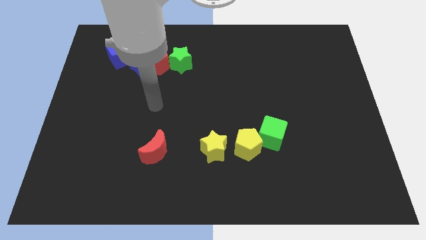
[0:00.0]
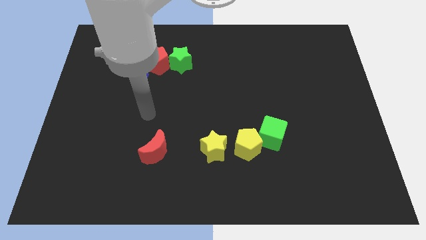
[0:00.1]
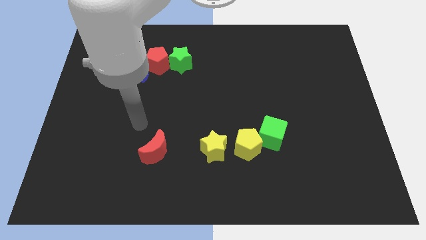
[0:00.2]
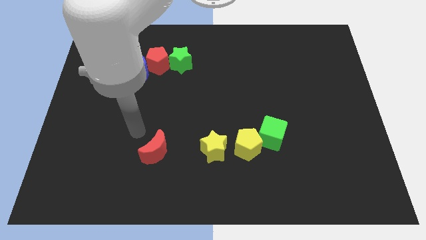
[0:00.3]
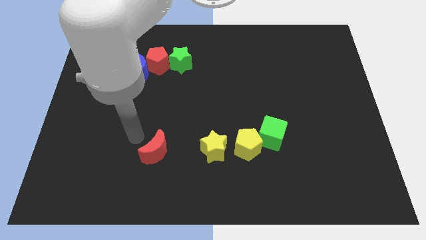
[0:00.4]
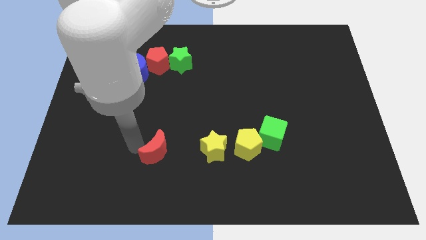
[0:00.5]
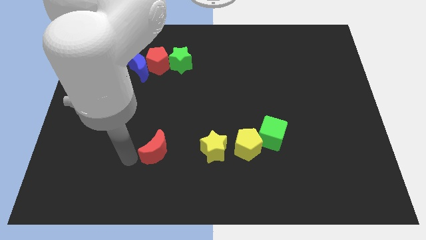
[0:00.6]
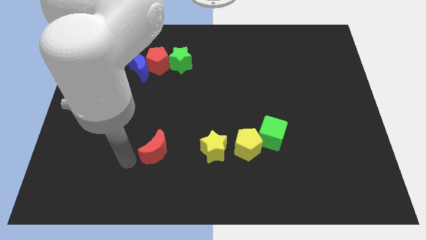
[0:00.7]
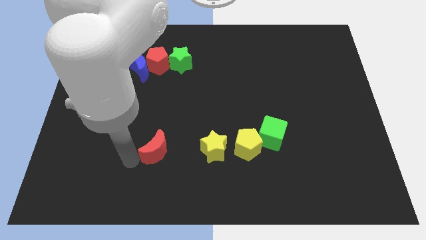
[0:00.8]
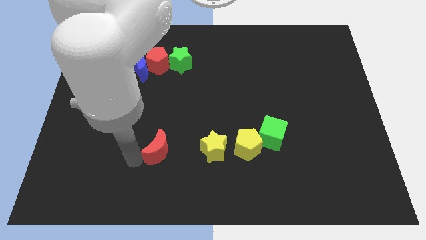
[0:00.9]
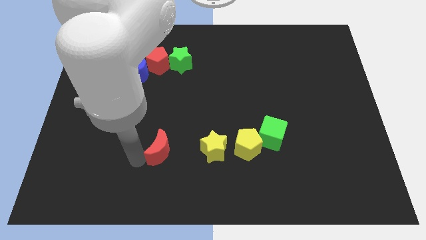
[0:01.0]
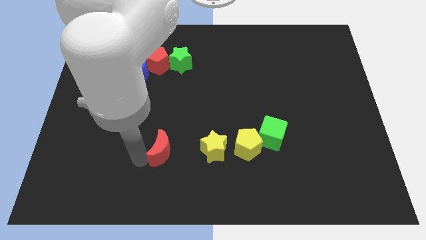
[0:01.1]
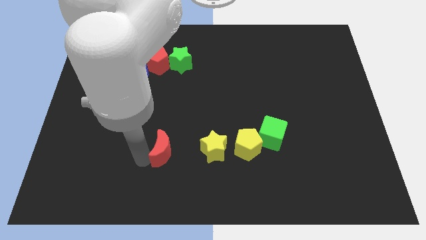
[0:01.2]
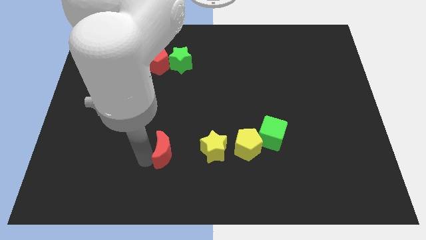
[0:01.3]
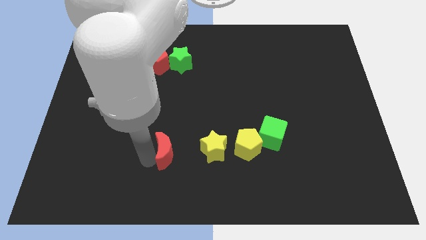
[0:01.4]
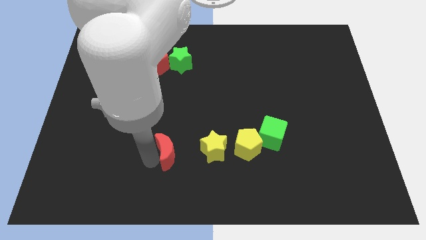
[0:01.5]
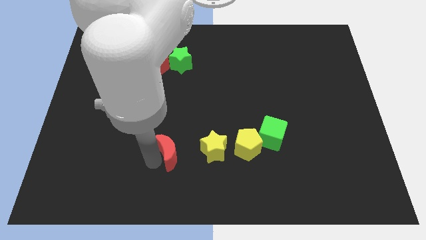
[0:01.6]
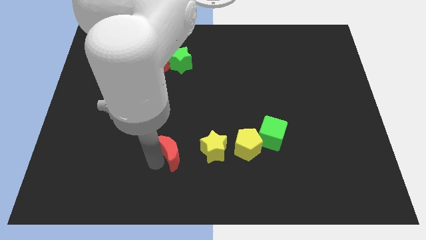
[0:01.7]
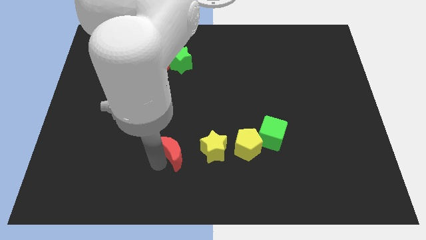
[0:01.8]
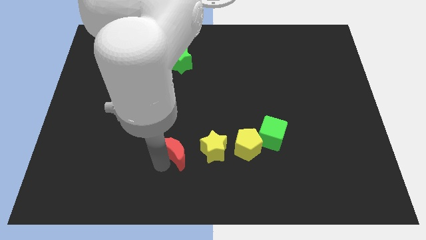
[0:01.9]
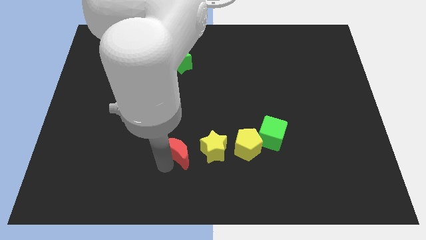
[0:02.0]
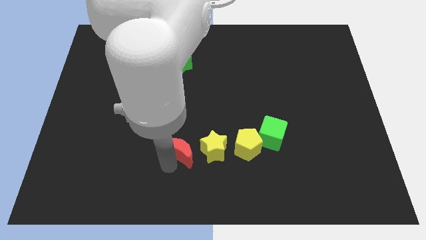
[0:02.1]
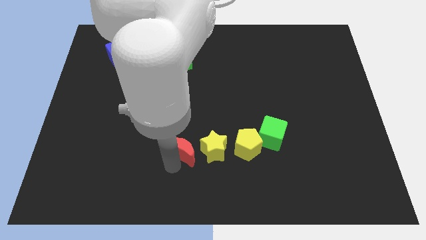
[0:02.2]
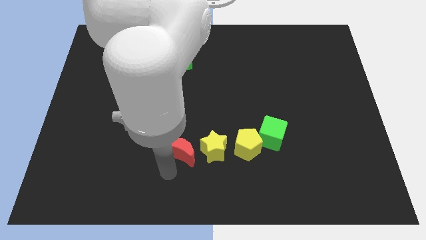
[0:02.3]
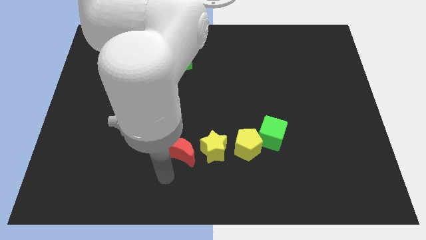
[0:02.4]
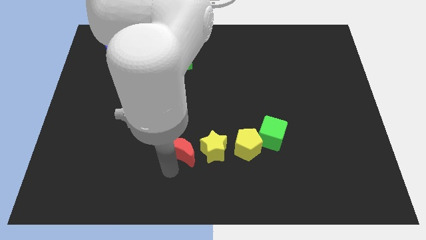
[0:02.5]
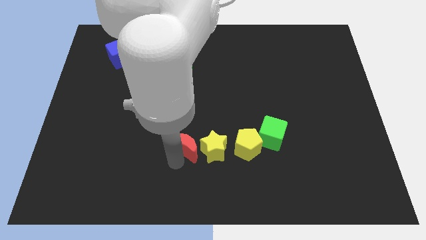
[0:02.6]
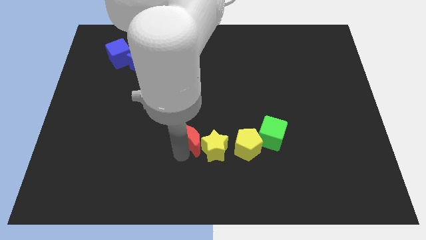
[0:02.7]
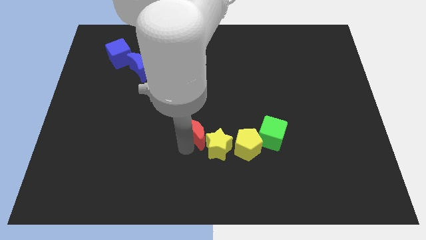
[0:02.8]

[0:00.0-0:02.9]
slightly move the red moon diagonally up and right

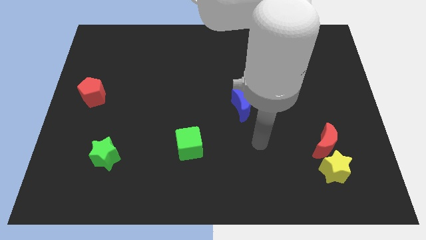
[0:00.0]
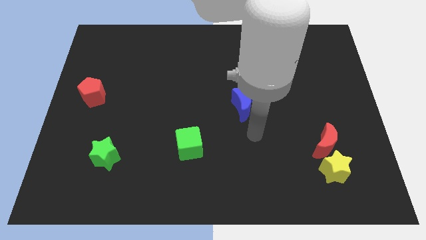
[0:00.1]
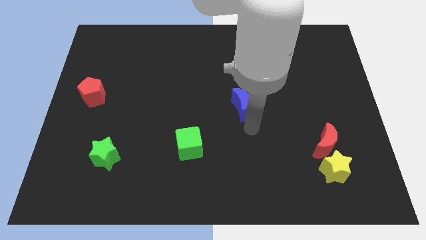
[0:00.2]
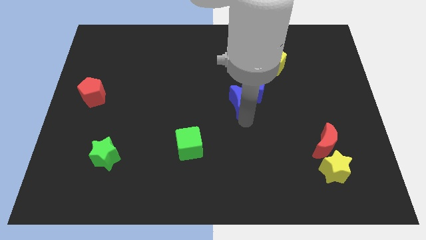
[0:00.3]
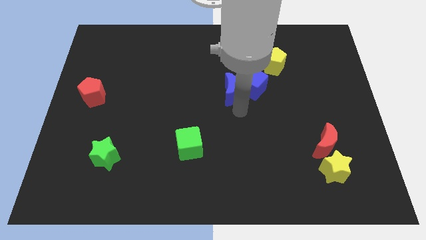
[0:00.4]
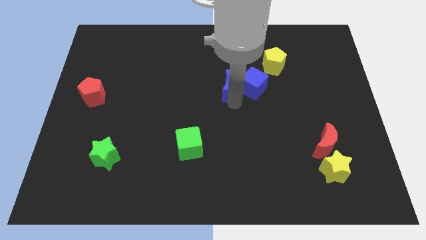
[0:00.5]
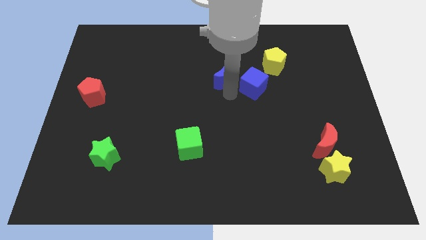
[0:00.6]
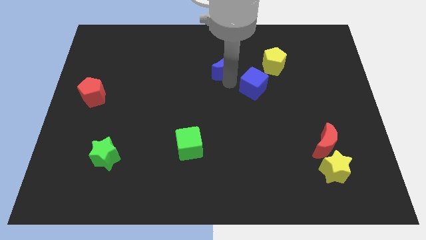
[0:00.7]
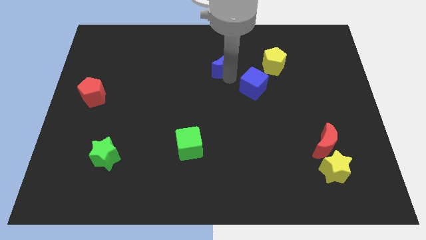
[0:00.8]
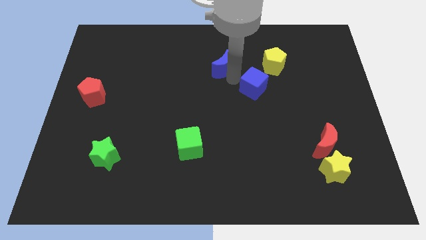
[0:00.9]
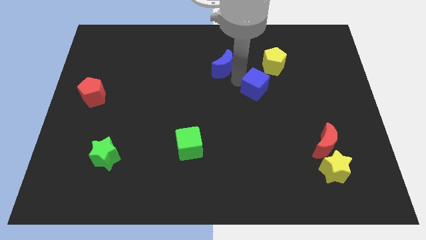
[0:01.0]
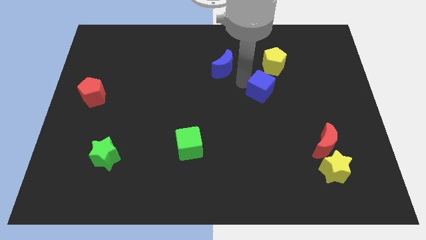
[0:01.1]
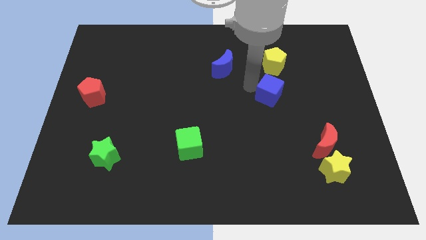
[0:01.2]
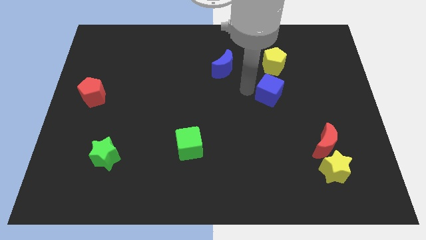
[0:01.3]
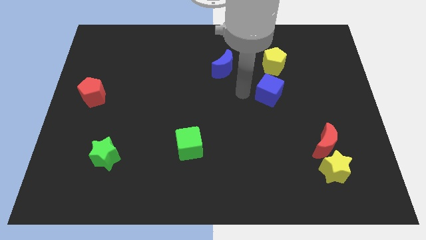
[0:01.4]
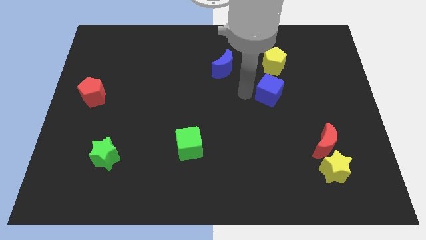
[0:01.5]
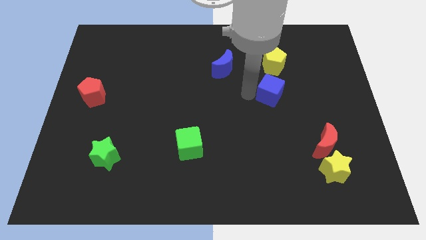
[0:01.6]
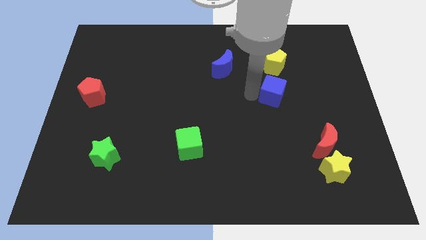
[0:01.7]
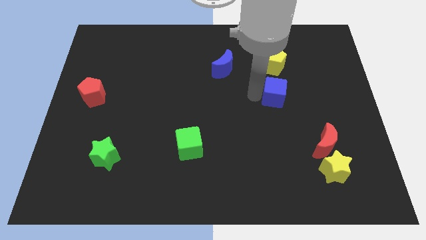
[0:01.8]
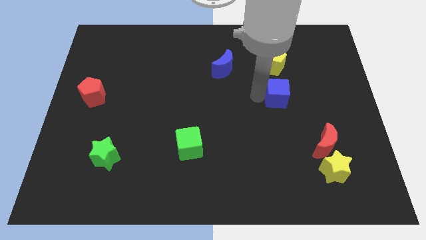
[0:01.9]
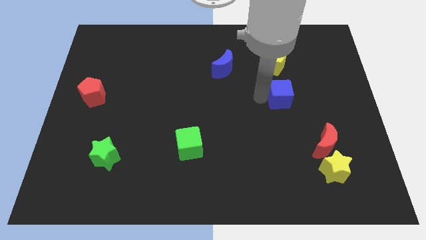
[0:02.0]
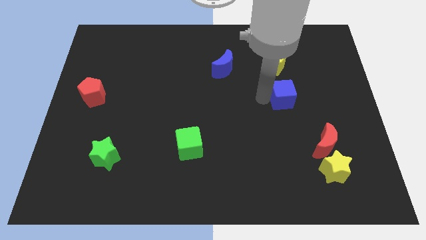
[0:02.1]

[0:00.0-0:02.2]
slide the blue cube right a little

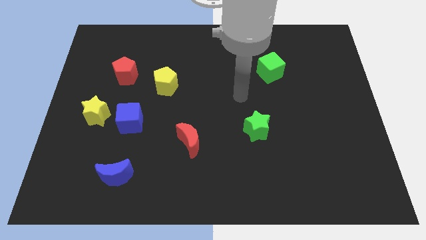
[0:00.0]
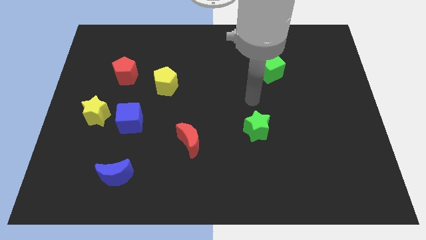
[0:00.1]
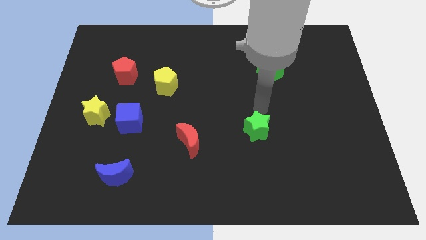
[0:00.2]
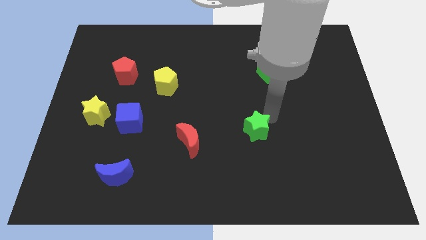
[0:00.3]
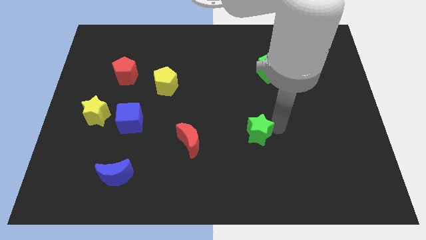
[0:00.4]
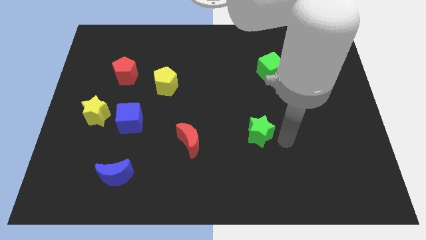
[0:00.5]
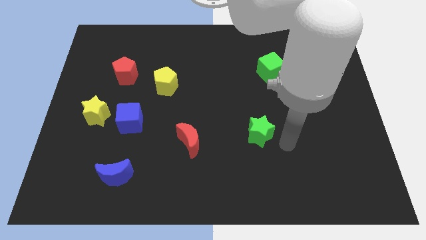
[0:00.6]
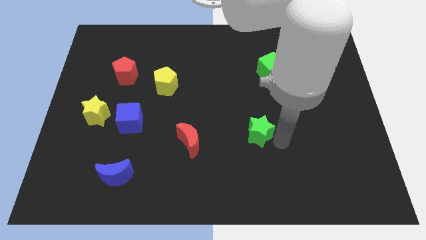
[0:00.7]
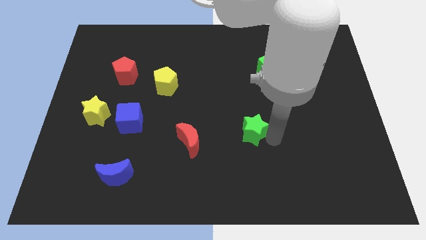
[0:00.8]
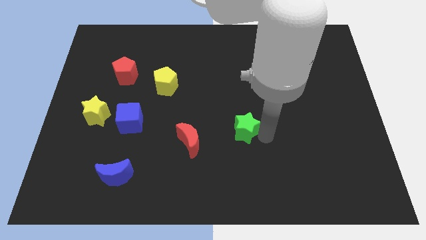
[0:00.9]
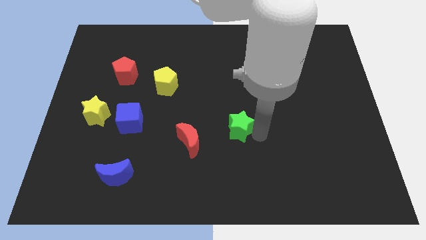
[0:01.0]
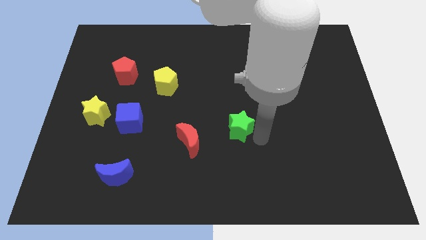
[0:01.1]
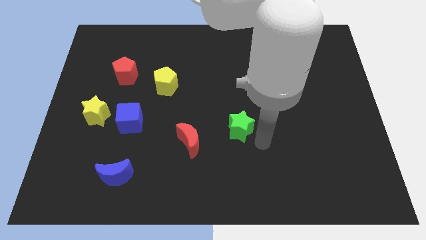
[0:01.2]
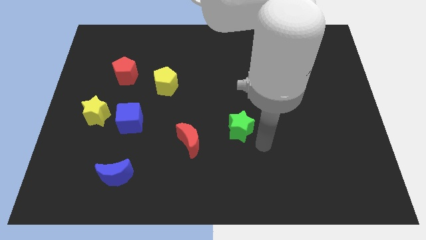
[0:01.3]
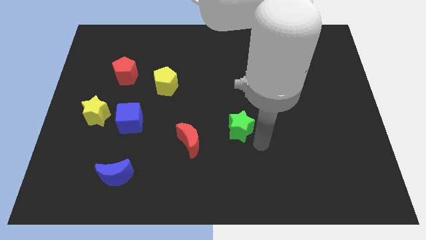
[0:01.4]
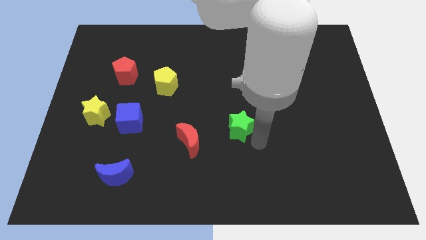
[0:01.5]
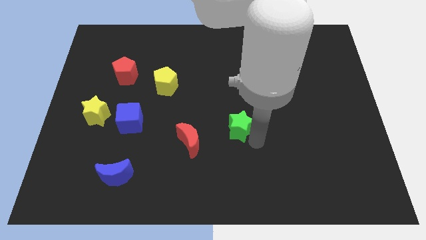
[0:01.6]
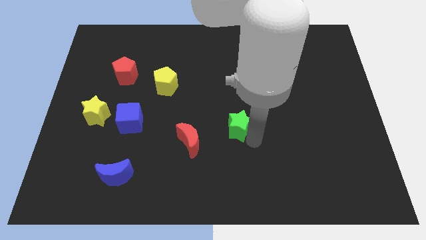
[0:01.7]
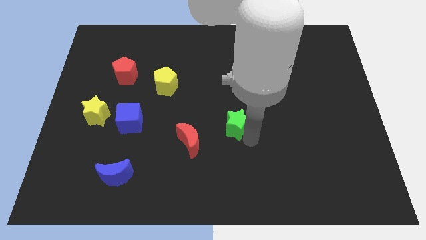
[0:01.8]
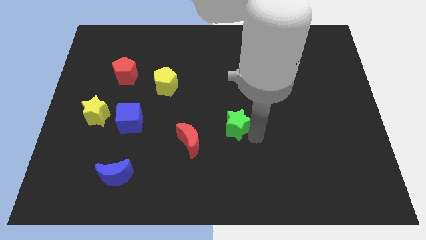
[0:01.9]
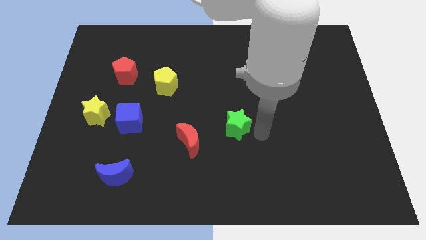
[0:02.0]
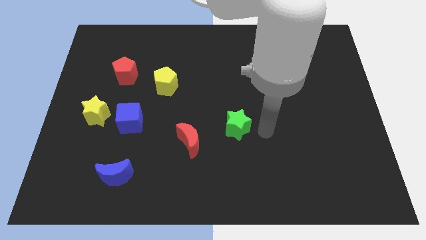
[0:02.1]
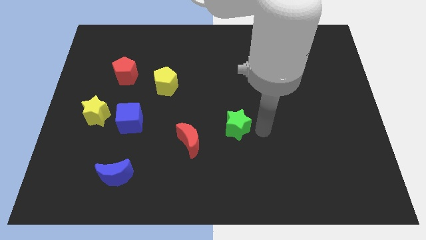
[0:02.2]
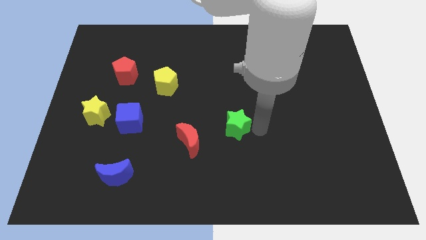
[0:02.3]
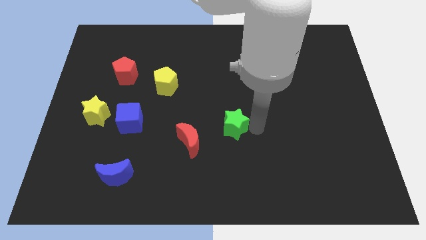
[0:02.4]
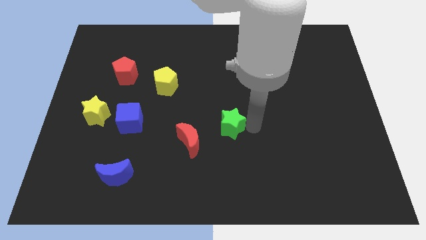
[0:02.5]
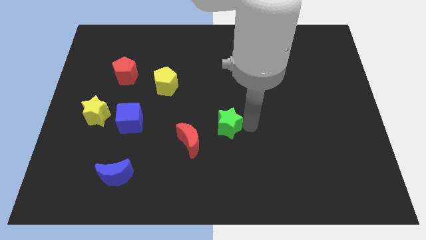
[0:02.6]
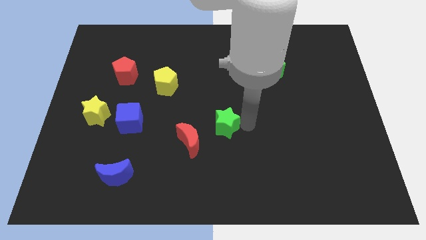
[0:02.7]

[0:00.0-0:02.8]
slide the green star slightly to the left

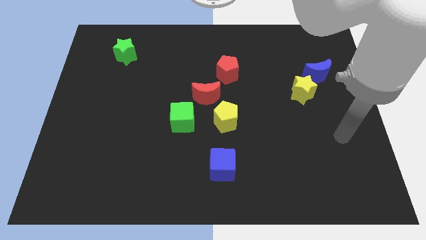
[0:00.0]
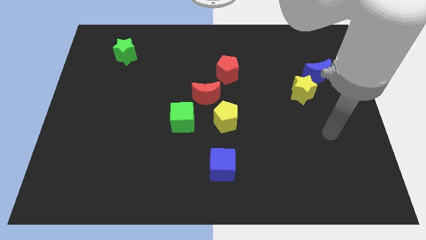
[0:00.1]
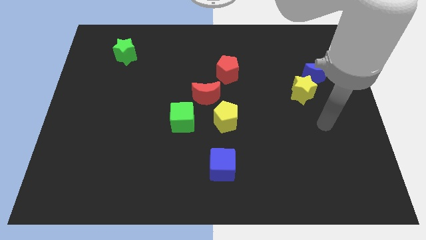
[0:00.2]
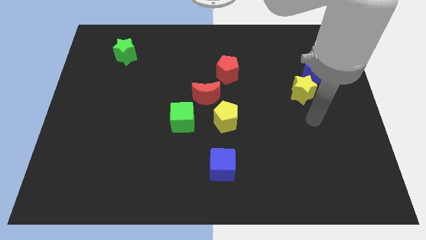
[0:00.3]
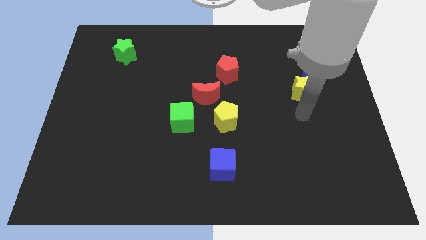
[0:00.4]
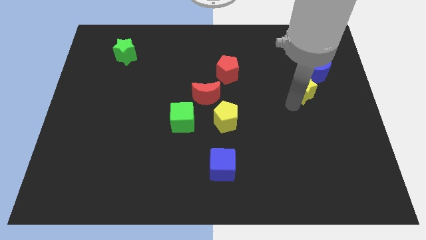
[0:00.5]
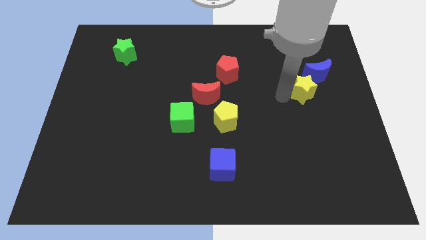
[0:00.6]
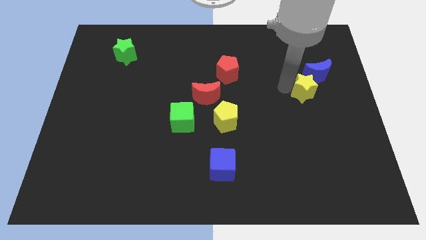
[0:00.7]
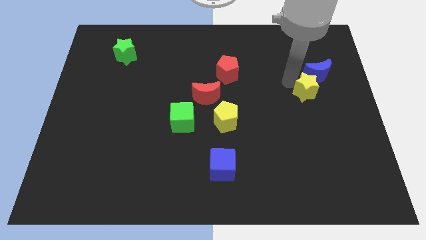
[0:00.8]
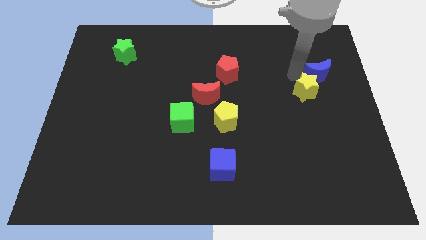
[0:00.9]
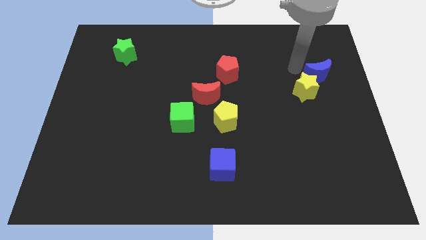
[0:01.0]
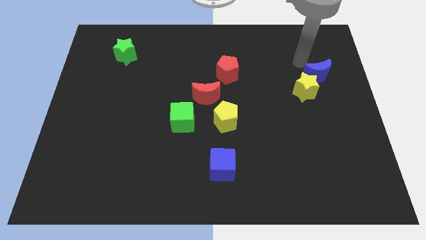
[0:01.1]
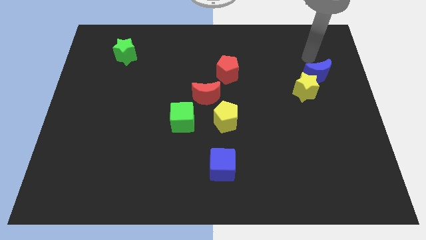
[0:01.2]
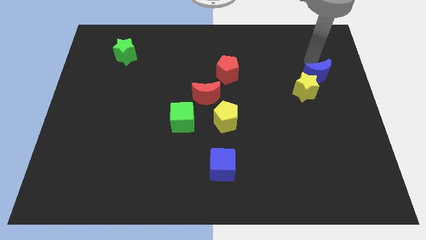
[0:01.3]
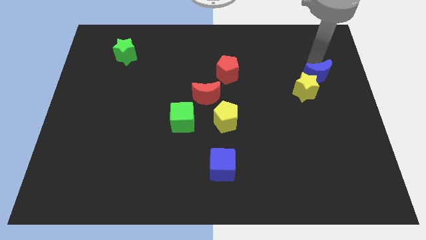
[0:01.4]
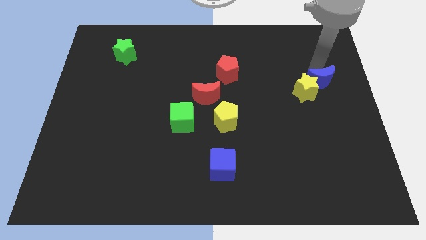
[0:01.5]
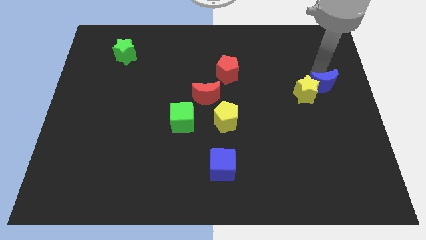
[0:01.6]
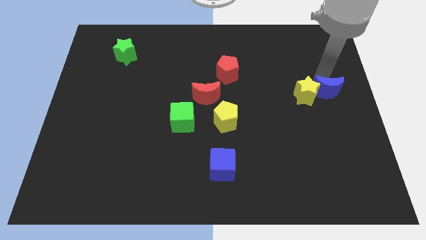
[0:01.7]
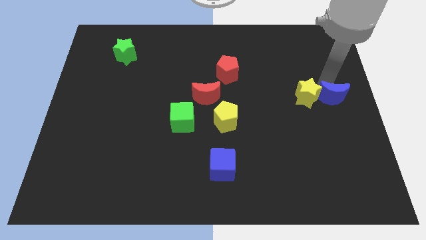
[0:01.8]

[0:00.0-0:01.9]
move the blue moon somewhat down
